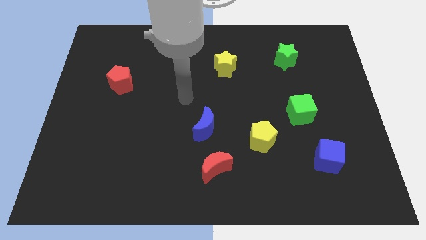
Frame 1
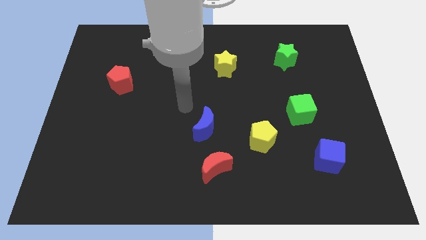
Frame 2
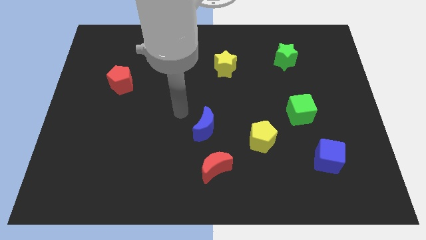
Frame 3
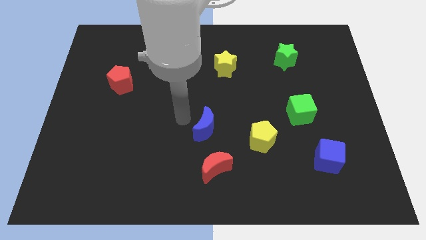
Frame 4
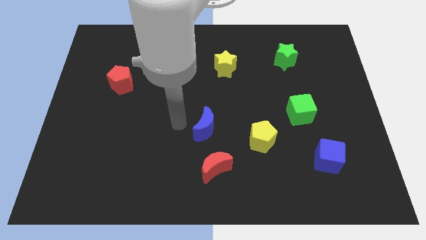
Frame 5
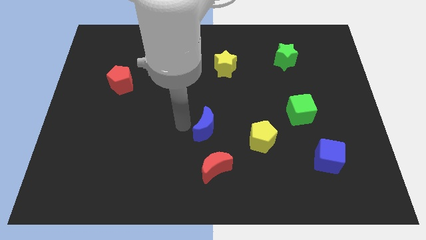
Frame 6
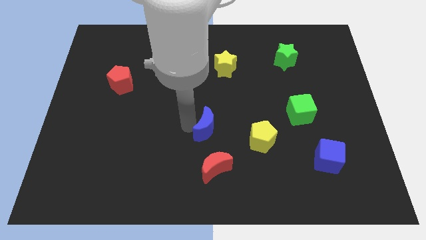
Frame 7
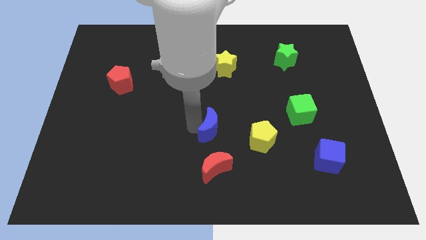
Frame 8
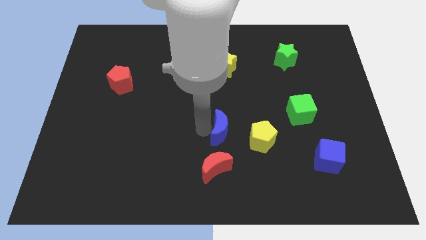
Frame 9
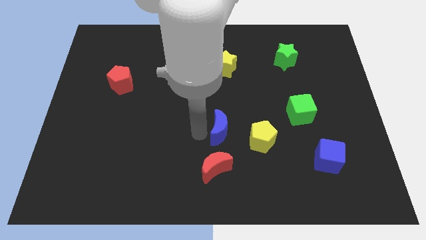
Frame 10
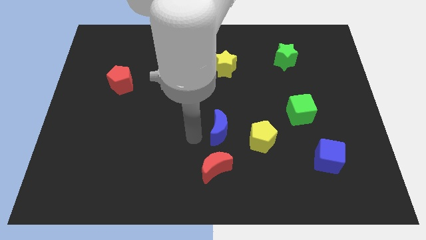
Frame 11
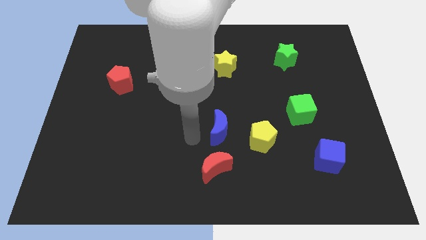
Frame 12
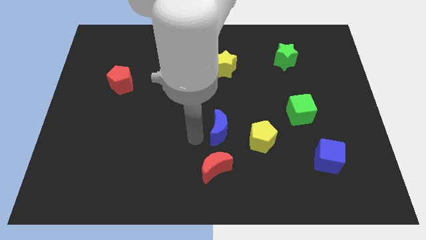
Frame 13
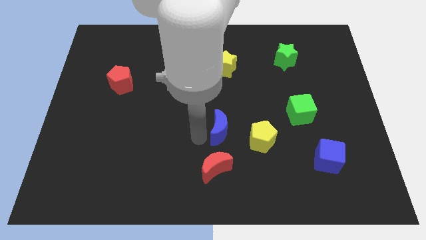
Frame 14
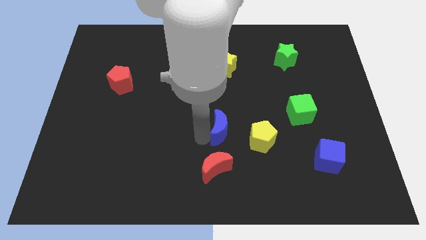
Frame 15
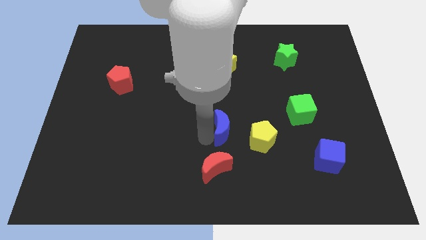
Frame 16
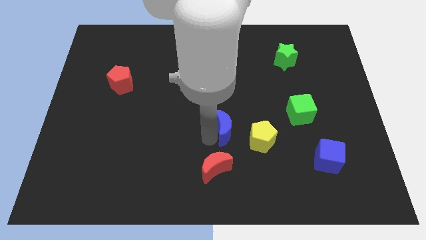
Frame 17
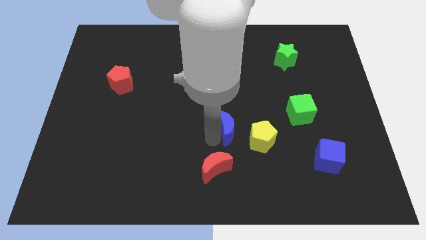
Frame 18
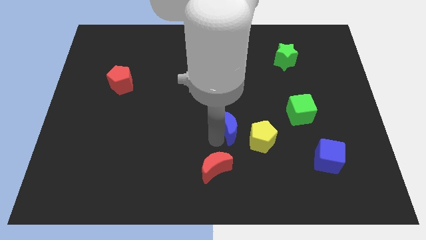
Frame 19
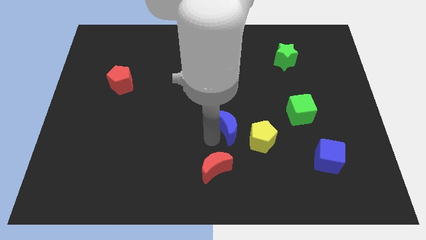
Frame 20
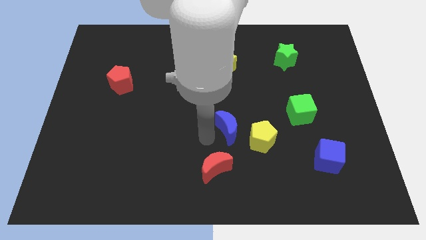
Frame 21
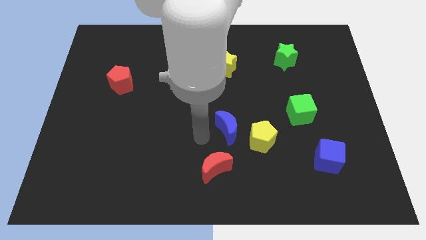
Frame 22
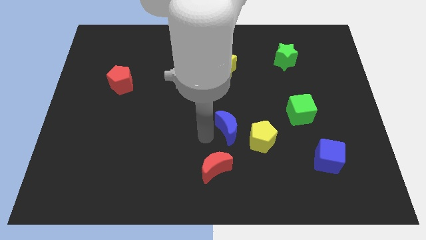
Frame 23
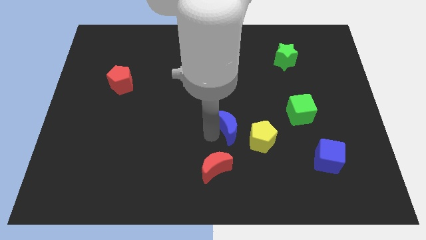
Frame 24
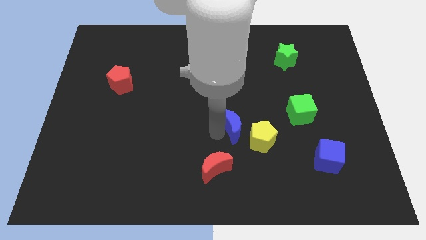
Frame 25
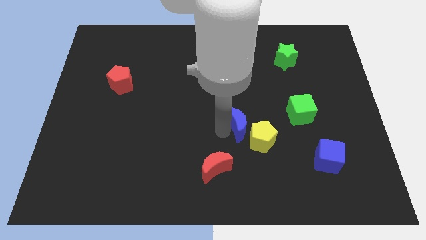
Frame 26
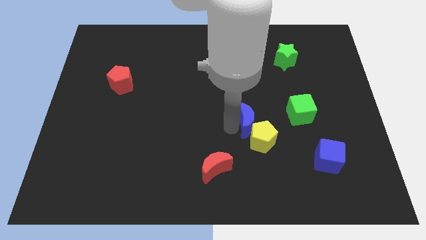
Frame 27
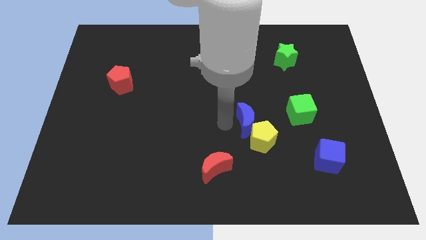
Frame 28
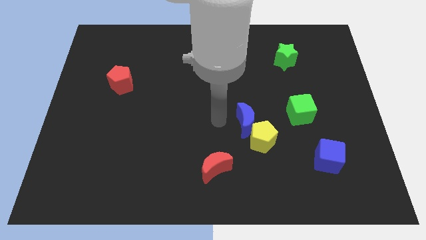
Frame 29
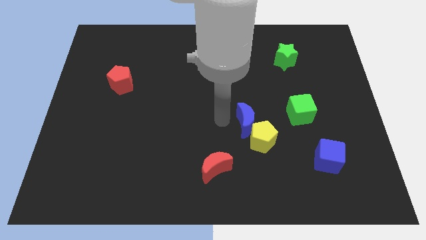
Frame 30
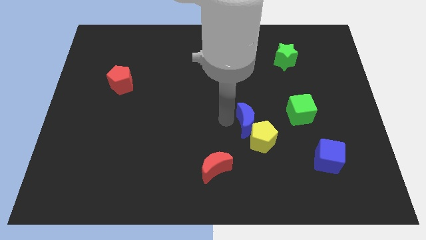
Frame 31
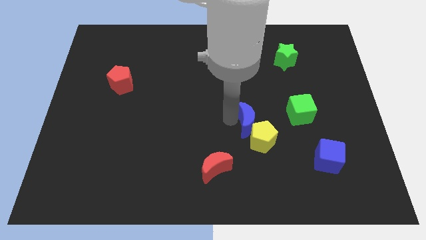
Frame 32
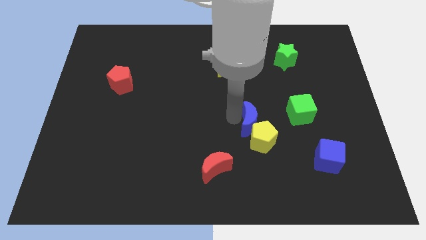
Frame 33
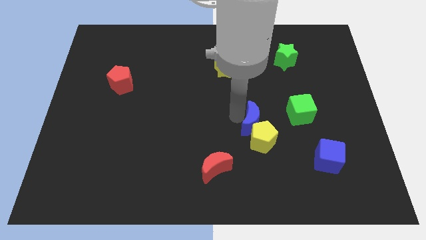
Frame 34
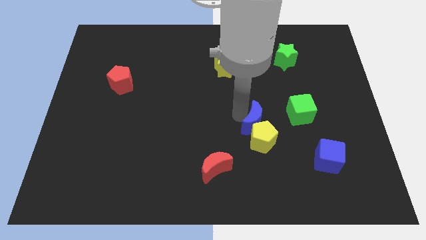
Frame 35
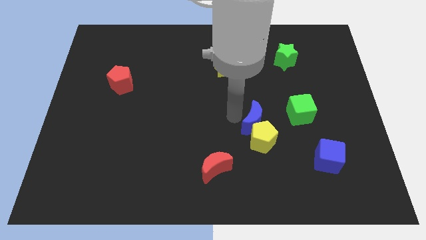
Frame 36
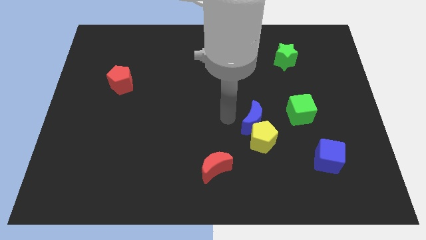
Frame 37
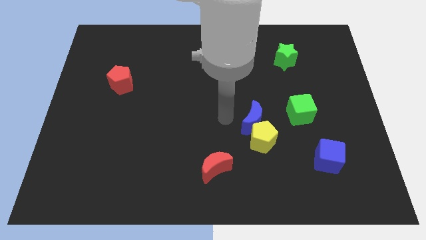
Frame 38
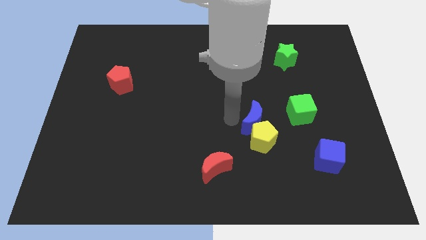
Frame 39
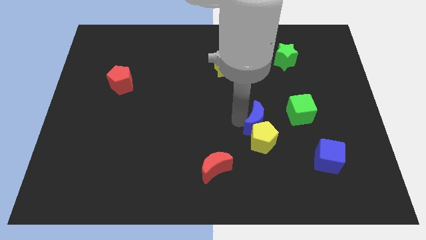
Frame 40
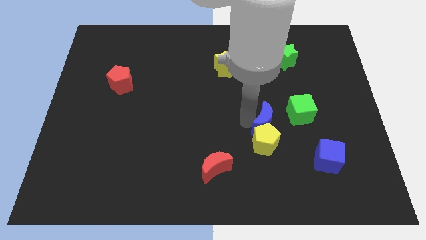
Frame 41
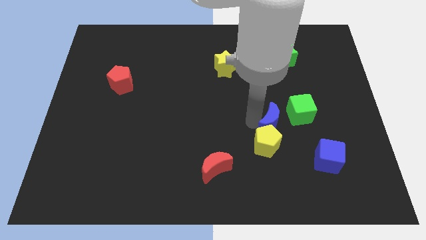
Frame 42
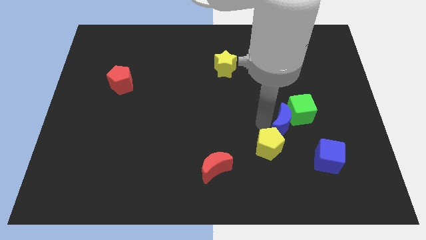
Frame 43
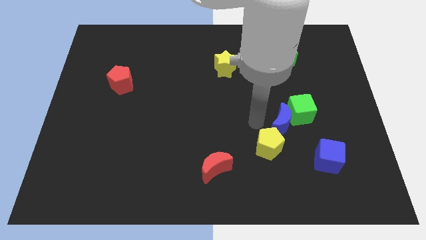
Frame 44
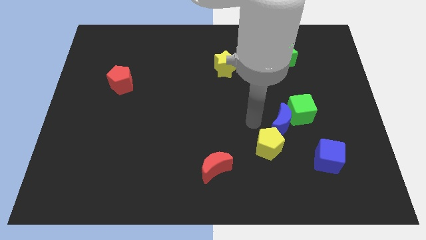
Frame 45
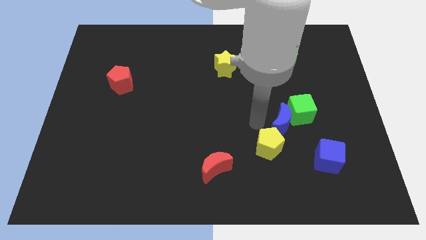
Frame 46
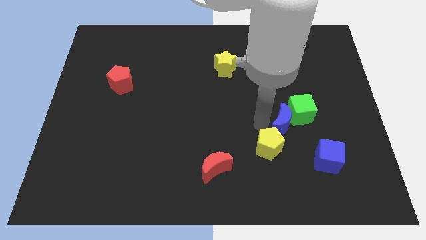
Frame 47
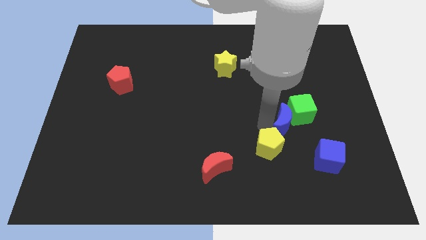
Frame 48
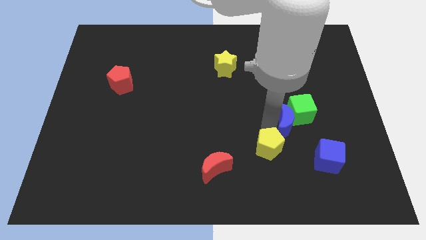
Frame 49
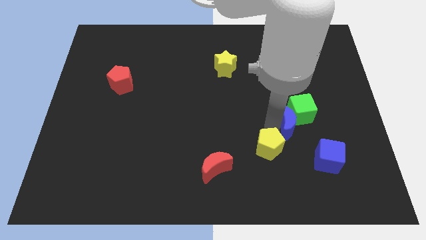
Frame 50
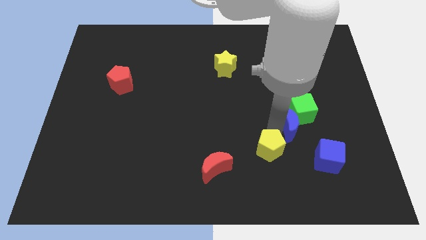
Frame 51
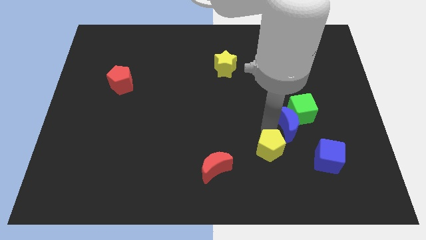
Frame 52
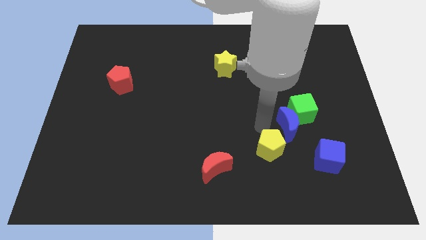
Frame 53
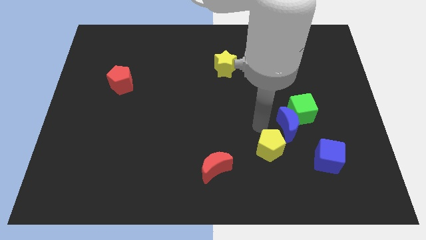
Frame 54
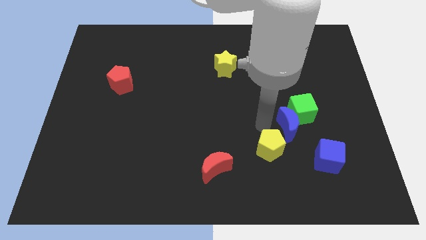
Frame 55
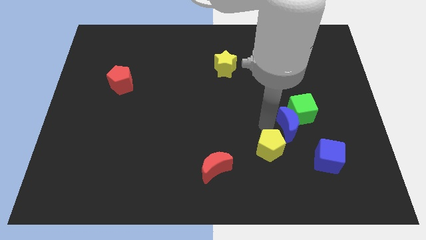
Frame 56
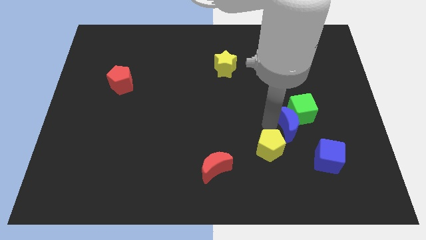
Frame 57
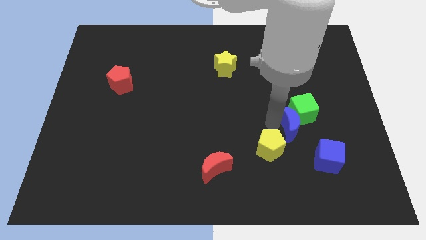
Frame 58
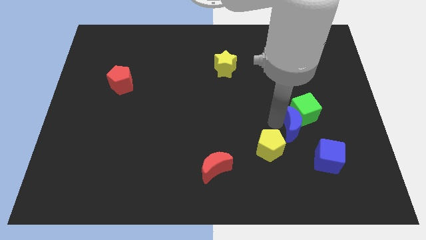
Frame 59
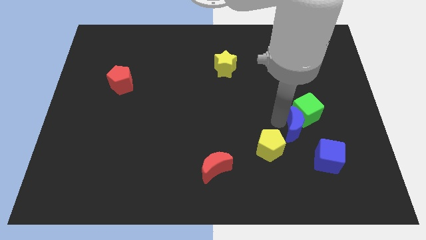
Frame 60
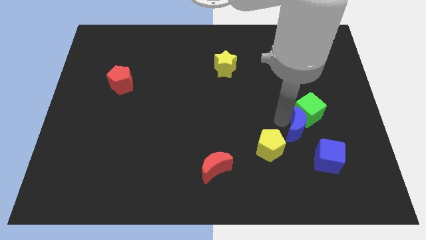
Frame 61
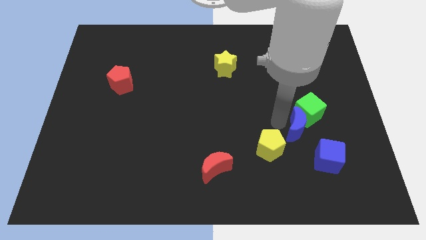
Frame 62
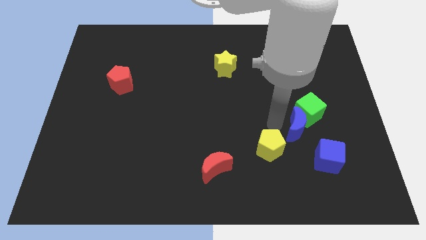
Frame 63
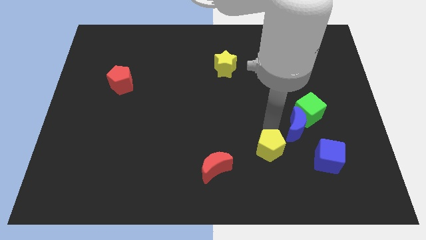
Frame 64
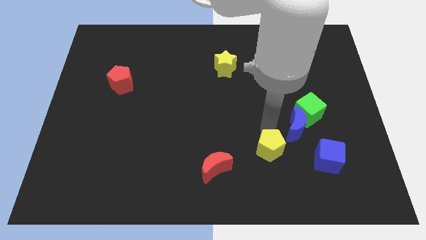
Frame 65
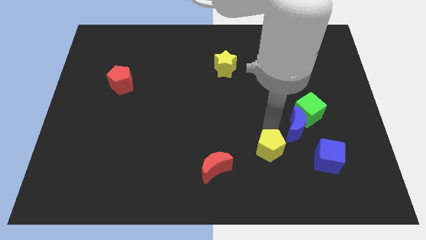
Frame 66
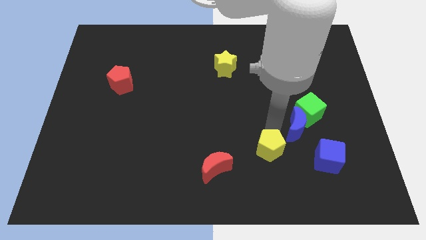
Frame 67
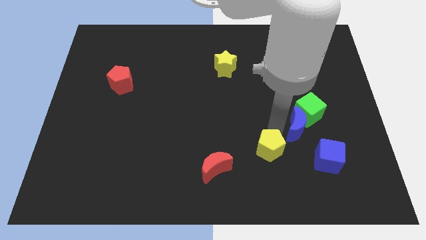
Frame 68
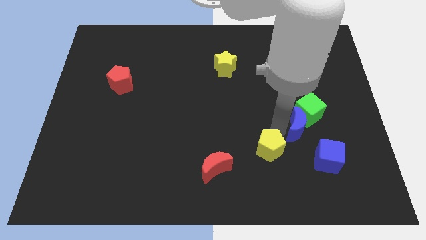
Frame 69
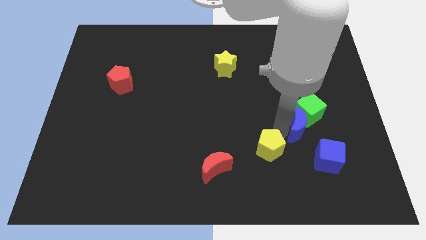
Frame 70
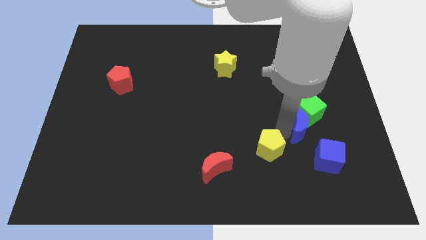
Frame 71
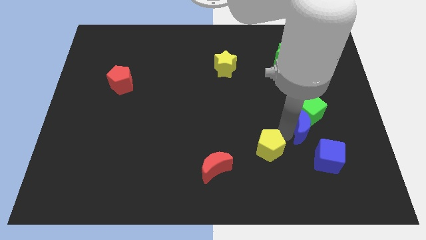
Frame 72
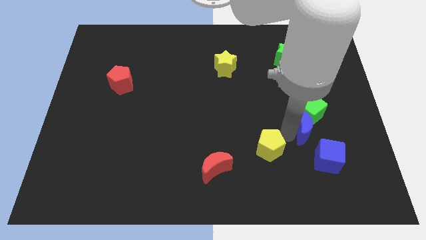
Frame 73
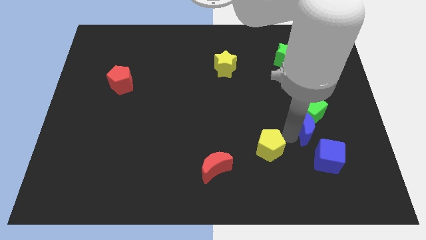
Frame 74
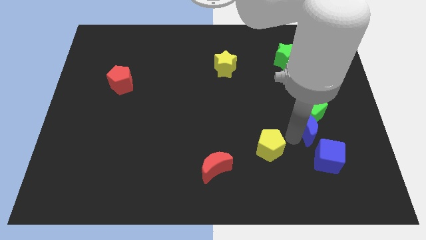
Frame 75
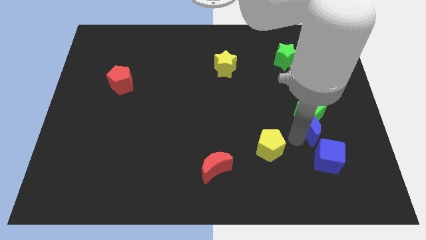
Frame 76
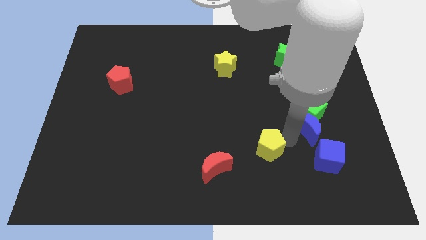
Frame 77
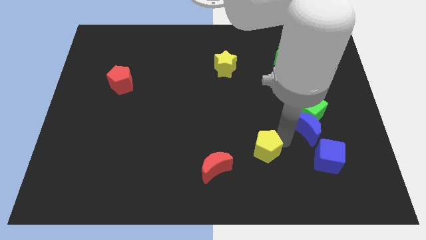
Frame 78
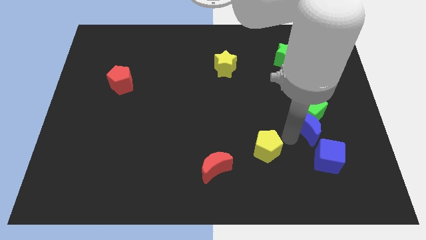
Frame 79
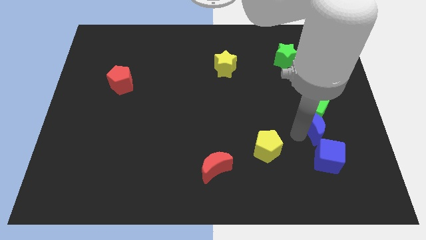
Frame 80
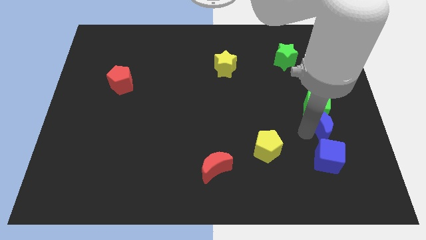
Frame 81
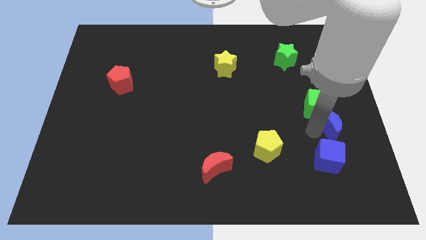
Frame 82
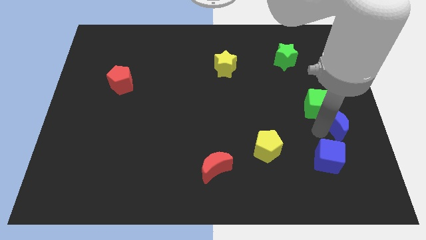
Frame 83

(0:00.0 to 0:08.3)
put the blue moon to the right side
